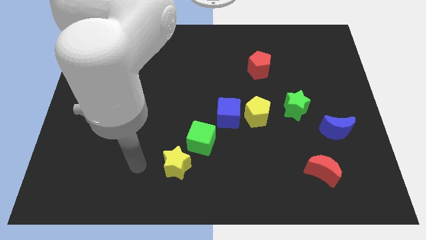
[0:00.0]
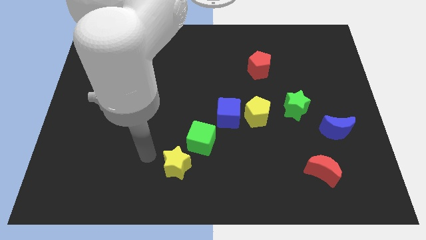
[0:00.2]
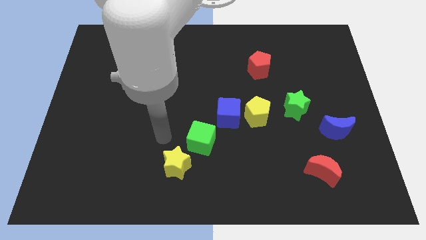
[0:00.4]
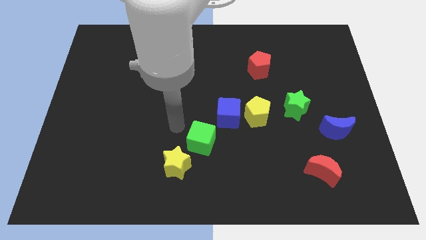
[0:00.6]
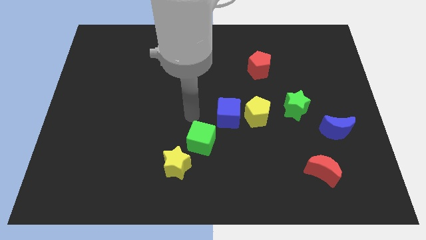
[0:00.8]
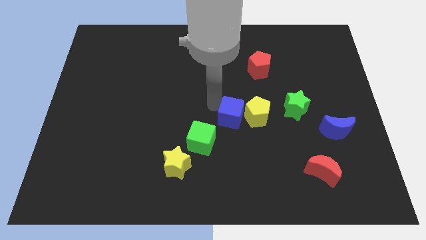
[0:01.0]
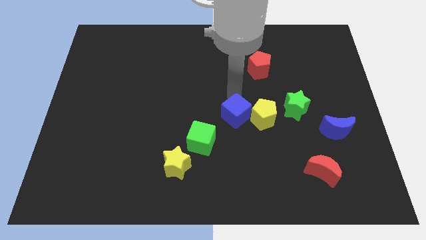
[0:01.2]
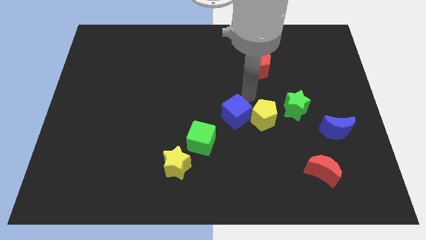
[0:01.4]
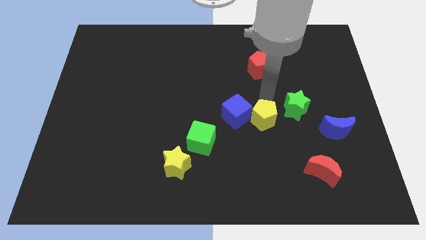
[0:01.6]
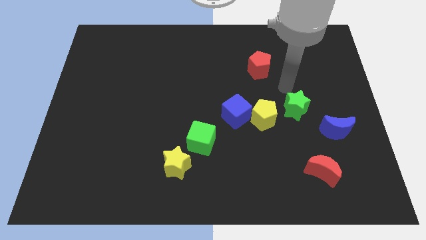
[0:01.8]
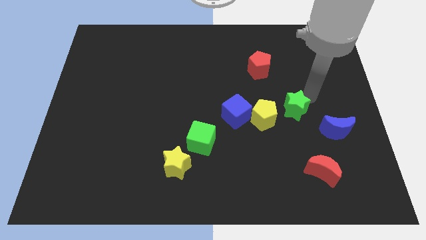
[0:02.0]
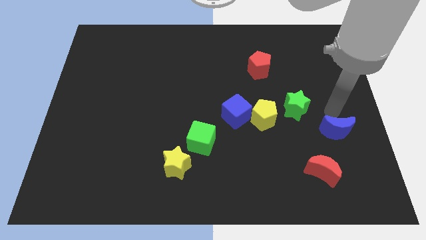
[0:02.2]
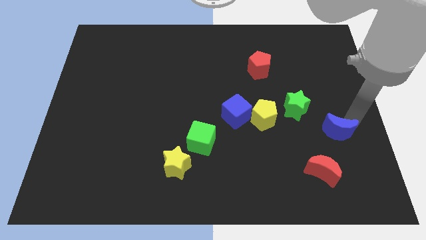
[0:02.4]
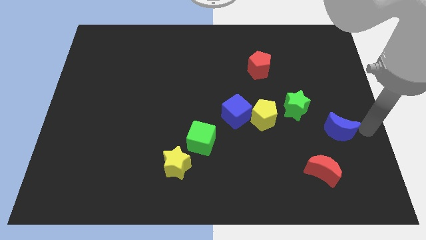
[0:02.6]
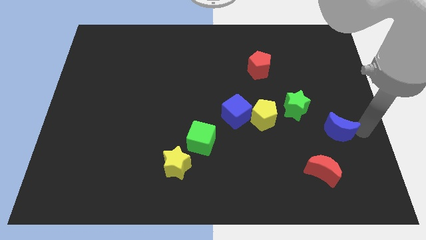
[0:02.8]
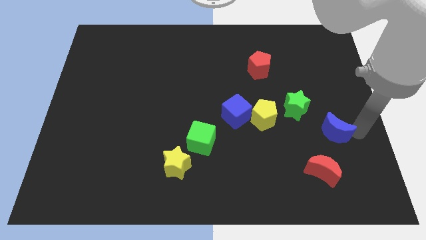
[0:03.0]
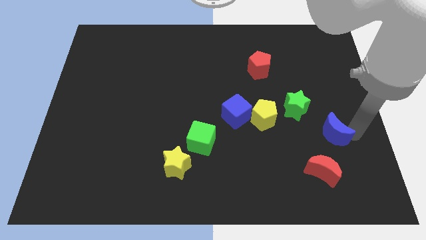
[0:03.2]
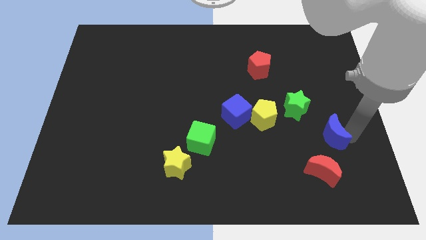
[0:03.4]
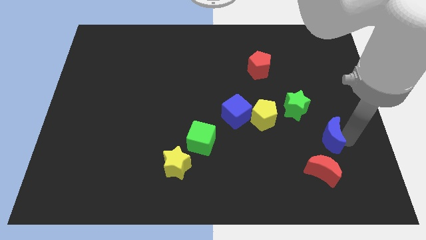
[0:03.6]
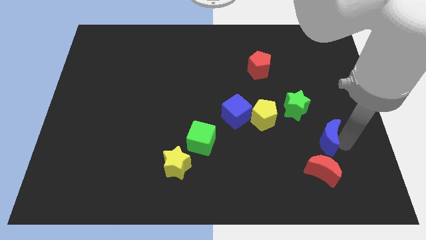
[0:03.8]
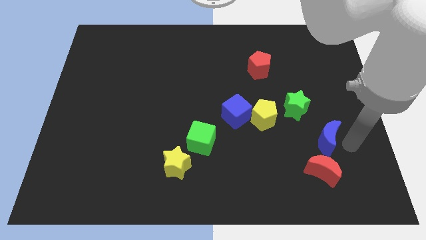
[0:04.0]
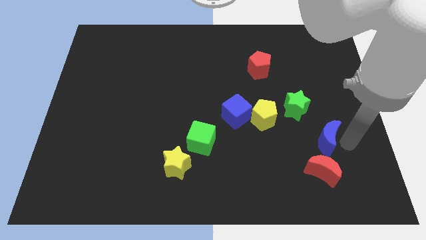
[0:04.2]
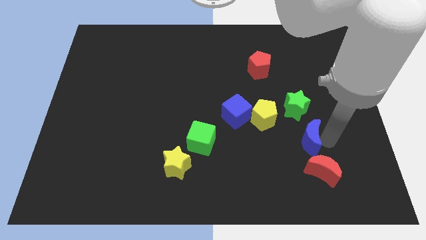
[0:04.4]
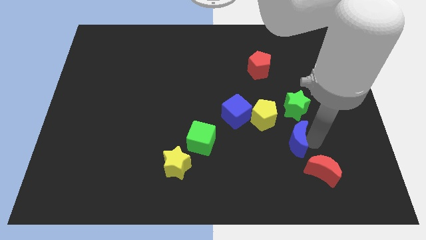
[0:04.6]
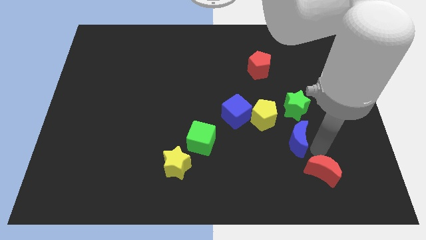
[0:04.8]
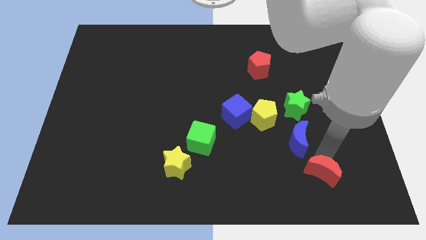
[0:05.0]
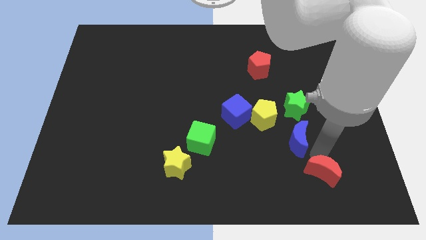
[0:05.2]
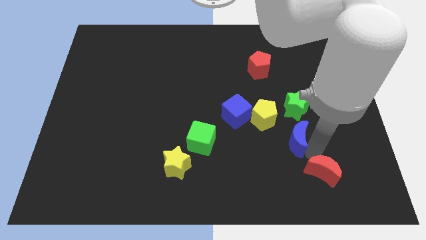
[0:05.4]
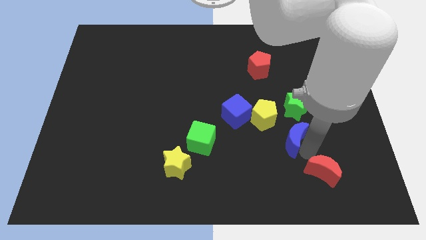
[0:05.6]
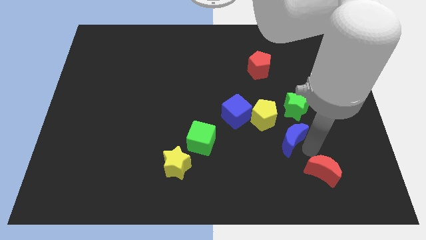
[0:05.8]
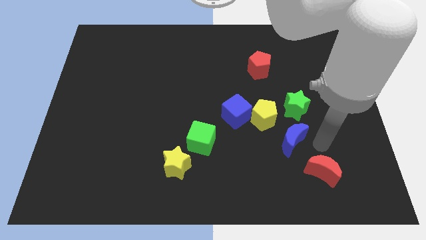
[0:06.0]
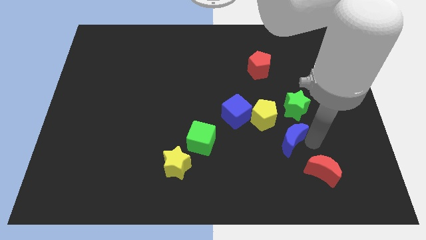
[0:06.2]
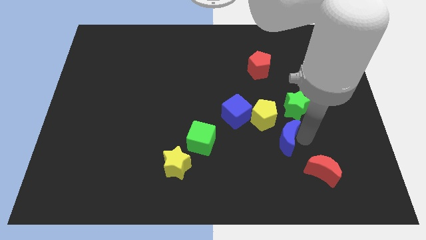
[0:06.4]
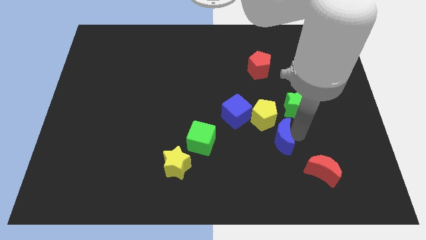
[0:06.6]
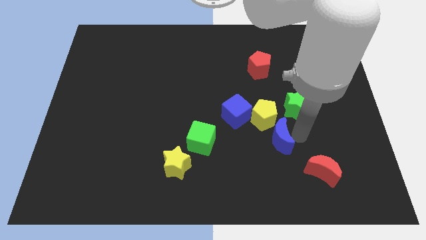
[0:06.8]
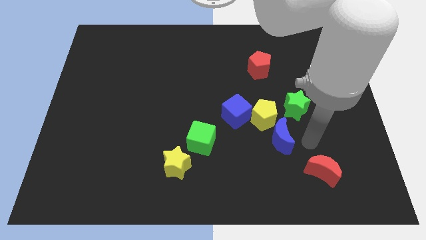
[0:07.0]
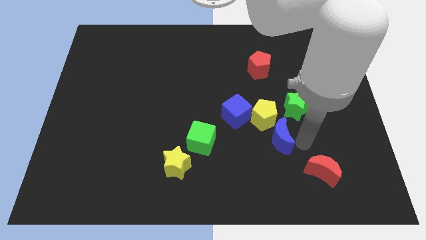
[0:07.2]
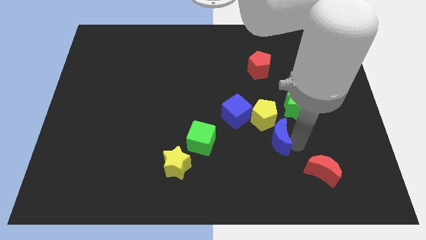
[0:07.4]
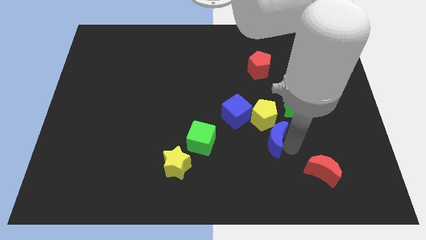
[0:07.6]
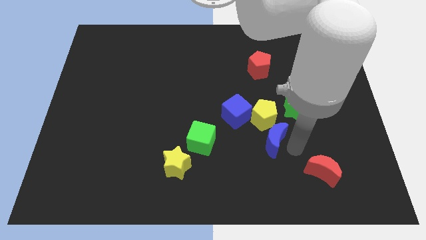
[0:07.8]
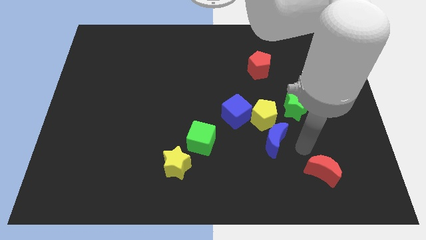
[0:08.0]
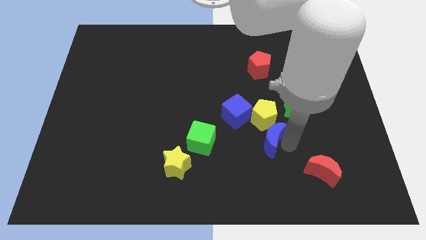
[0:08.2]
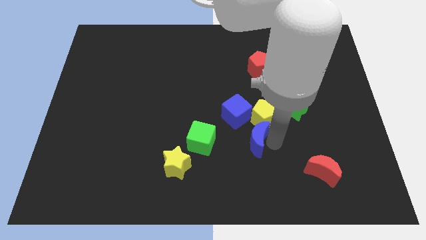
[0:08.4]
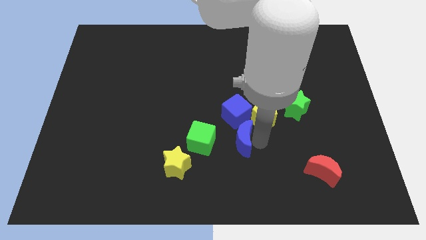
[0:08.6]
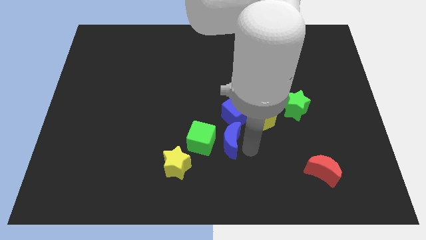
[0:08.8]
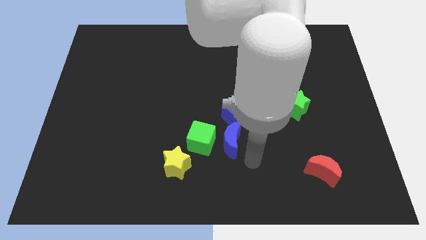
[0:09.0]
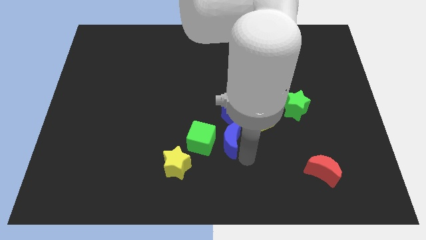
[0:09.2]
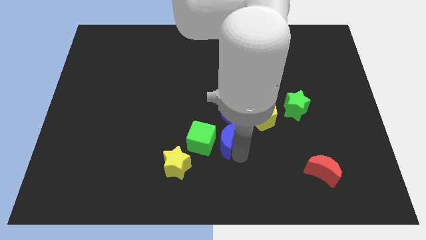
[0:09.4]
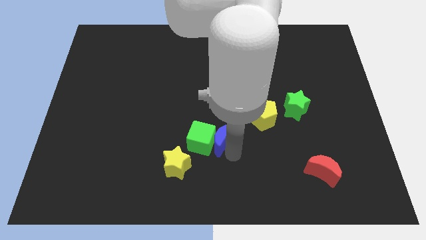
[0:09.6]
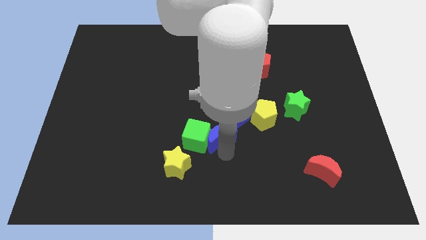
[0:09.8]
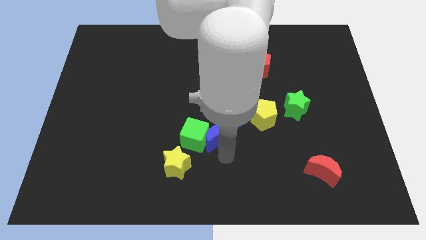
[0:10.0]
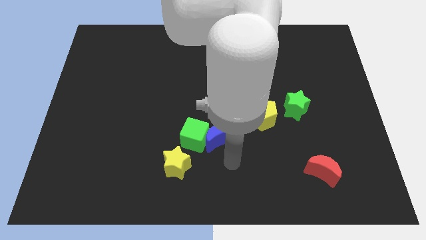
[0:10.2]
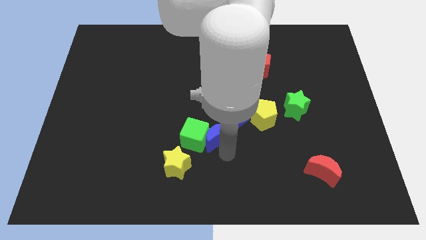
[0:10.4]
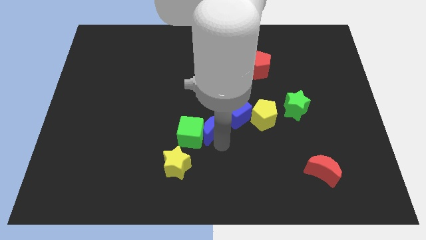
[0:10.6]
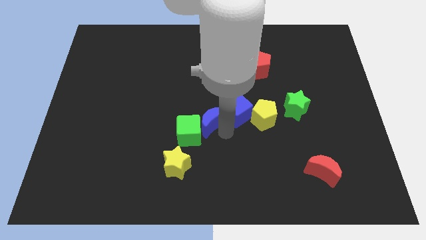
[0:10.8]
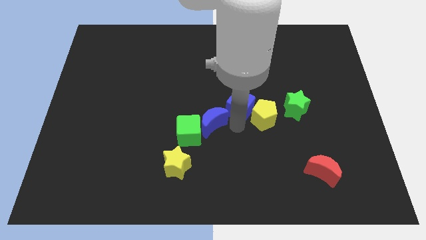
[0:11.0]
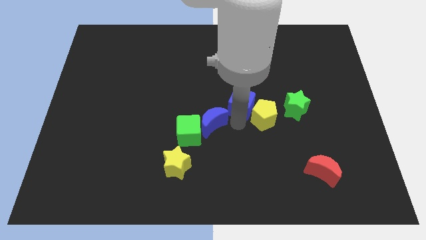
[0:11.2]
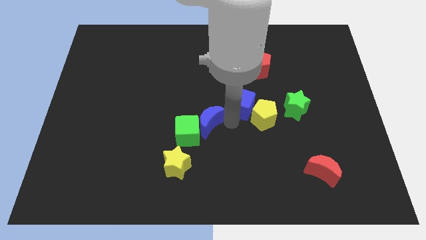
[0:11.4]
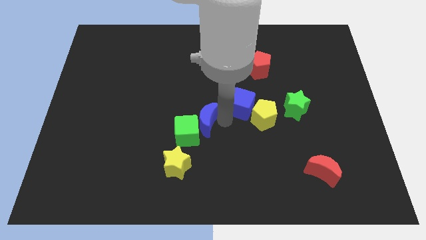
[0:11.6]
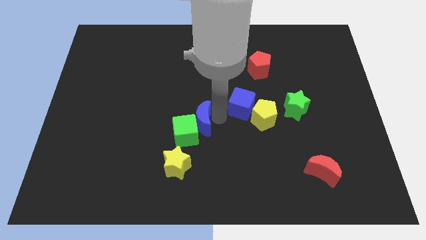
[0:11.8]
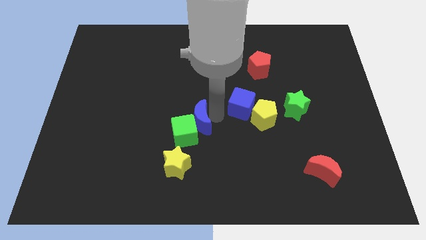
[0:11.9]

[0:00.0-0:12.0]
push the blue moon to the top side of the yellow star

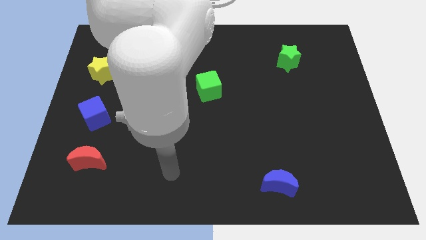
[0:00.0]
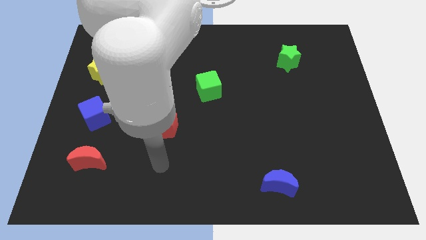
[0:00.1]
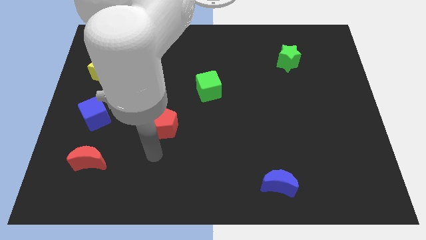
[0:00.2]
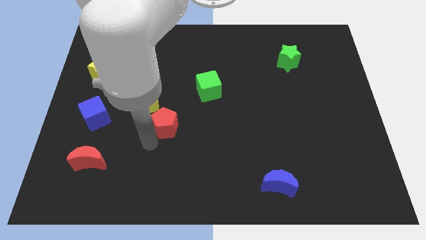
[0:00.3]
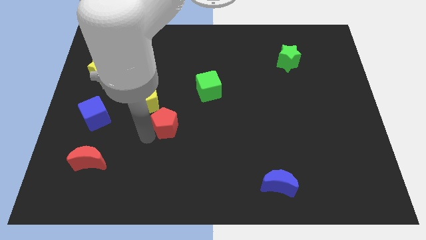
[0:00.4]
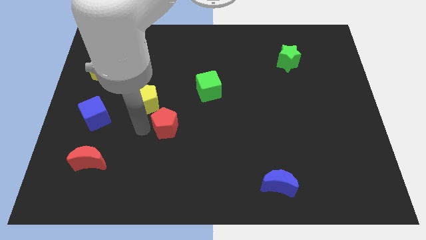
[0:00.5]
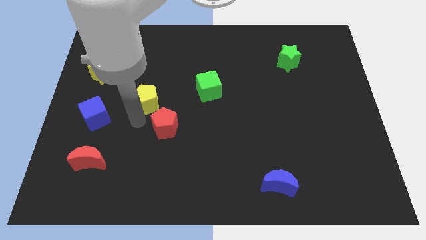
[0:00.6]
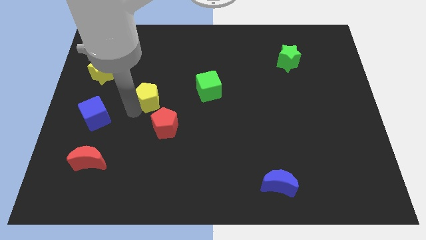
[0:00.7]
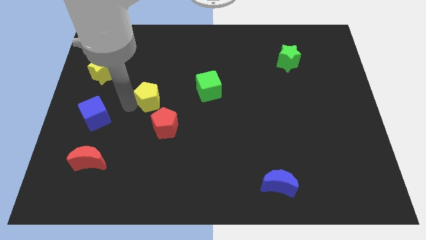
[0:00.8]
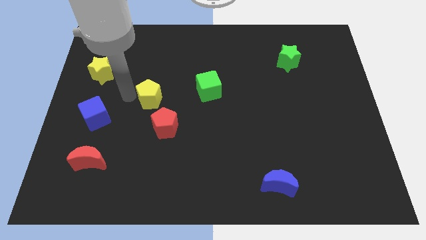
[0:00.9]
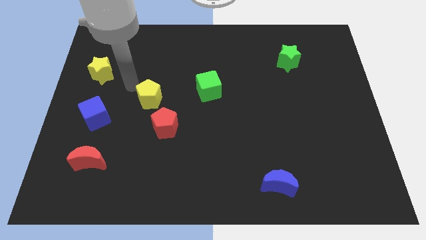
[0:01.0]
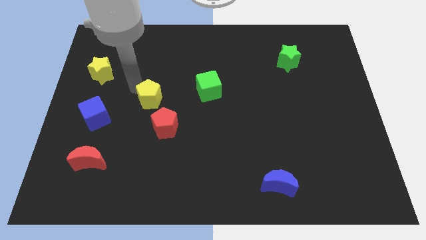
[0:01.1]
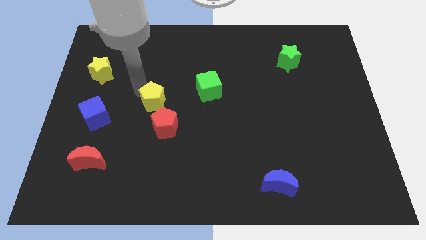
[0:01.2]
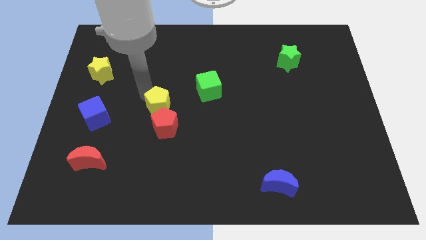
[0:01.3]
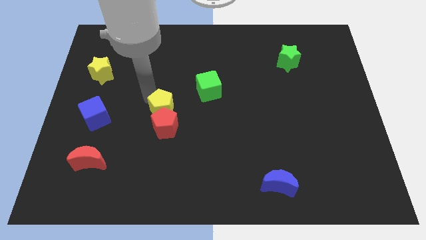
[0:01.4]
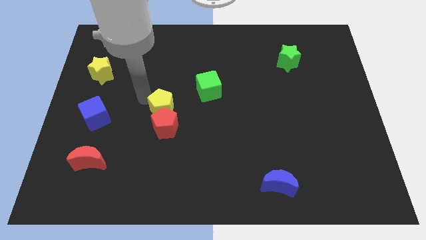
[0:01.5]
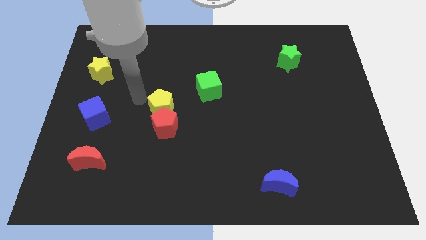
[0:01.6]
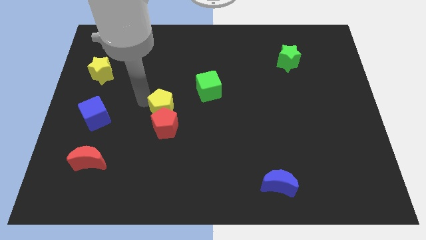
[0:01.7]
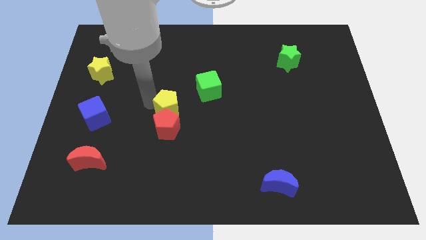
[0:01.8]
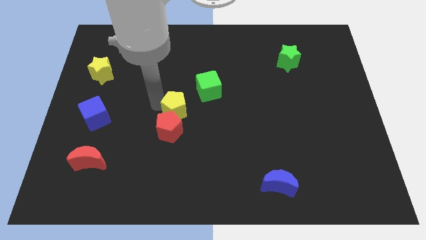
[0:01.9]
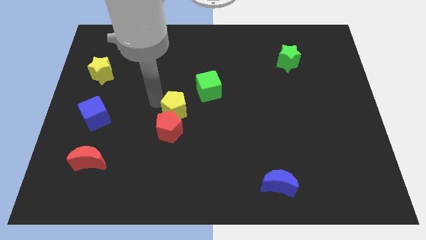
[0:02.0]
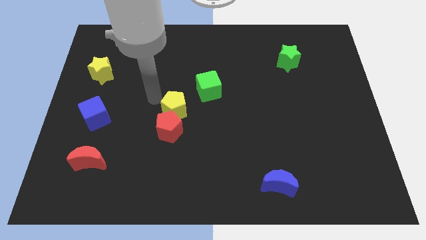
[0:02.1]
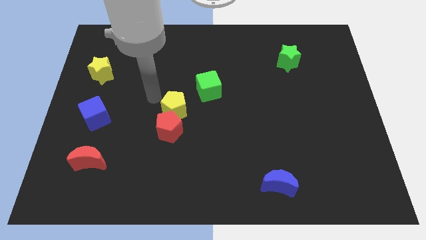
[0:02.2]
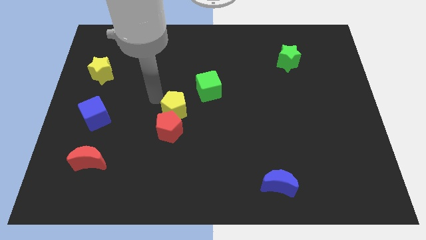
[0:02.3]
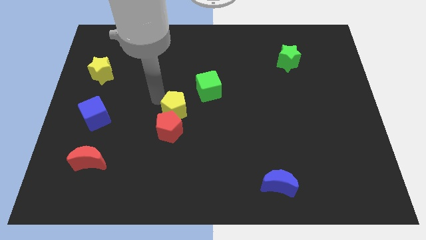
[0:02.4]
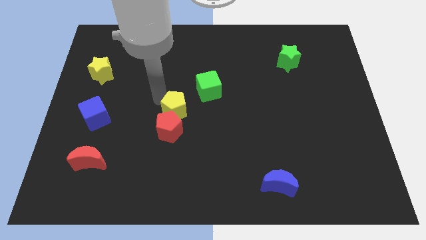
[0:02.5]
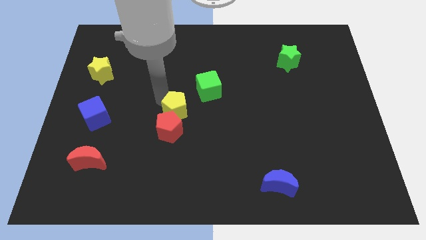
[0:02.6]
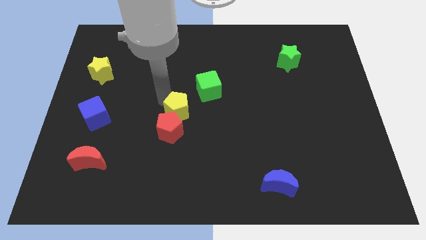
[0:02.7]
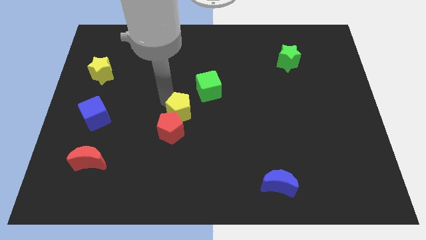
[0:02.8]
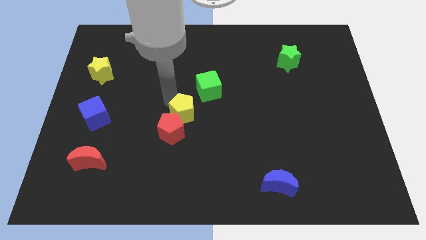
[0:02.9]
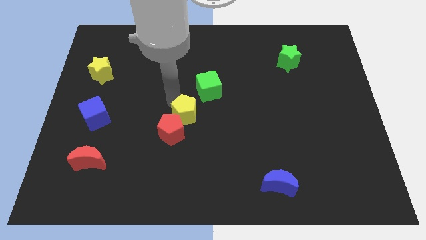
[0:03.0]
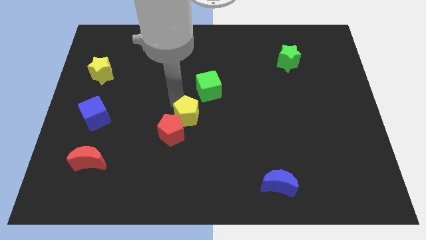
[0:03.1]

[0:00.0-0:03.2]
put the yellow pentagon to the bottom of the green cube
